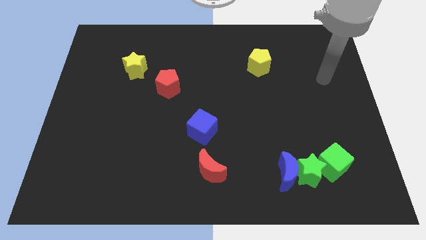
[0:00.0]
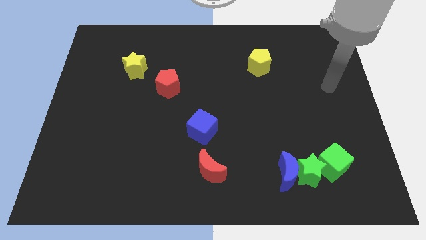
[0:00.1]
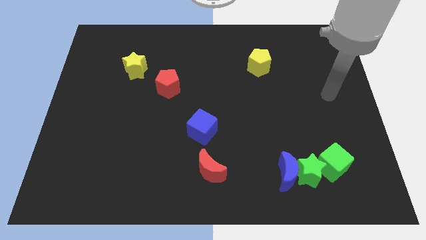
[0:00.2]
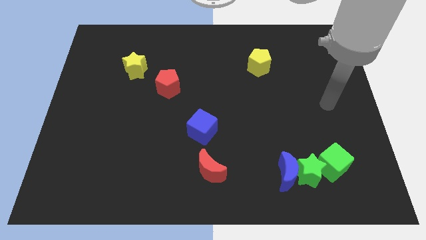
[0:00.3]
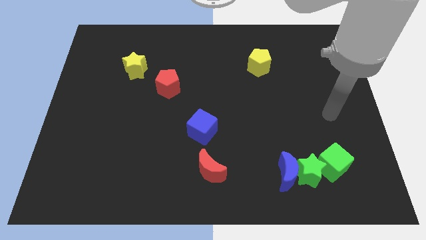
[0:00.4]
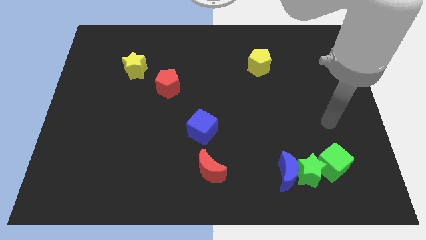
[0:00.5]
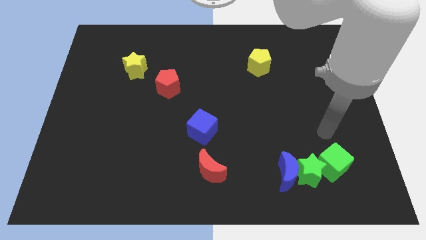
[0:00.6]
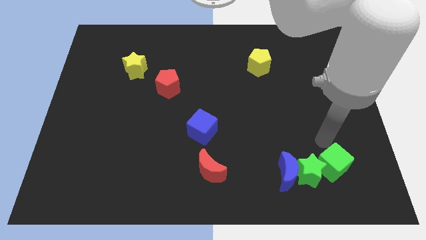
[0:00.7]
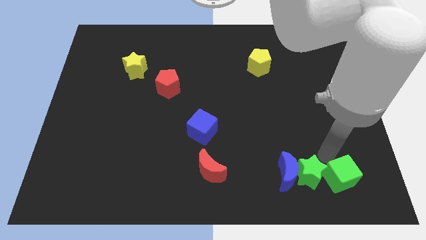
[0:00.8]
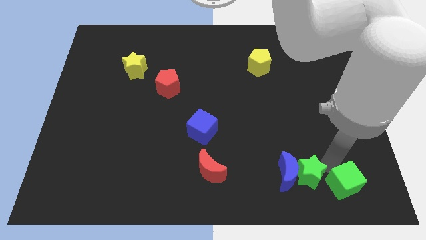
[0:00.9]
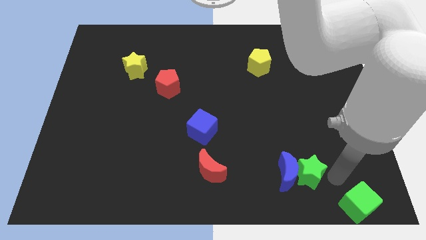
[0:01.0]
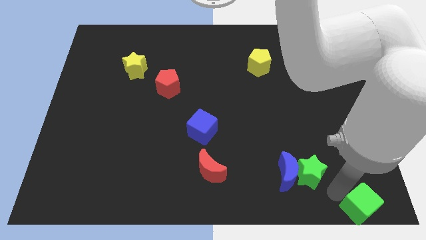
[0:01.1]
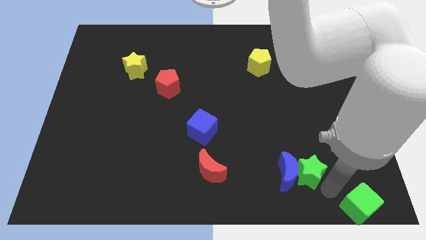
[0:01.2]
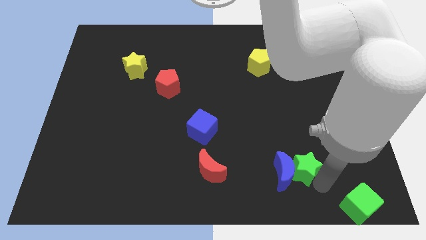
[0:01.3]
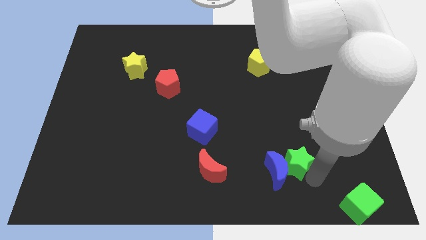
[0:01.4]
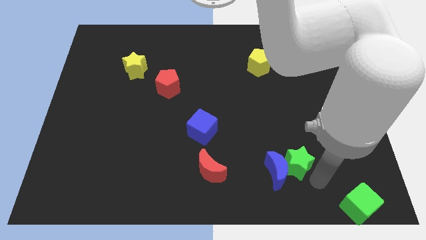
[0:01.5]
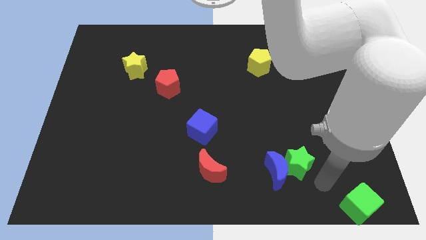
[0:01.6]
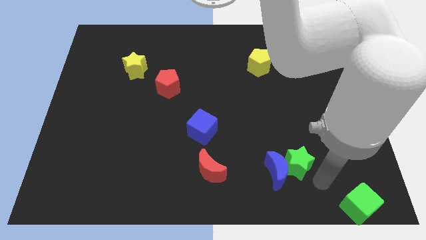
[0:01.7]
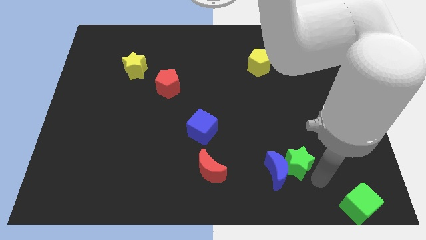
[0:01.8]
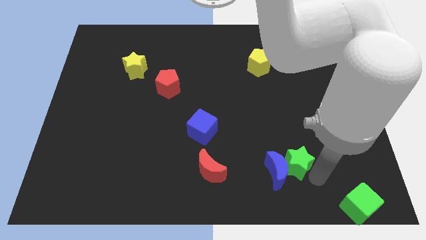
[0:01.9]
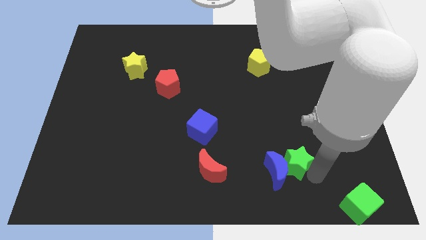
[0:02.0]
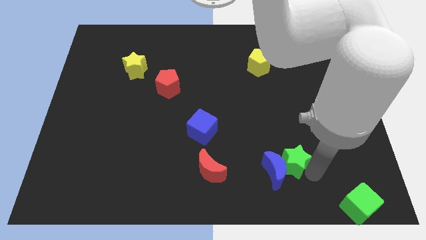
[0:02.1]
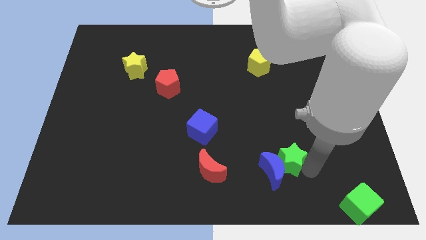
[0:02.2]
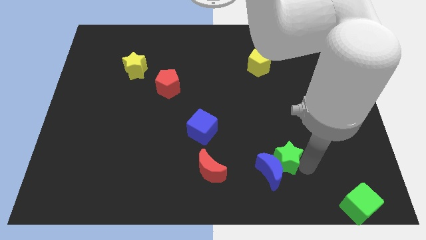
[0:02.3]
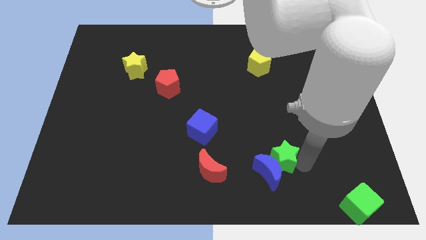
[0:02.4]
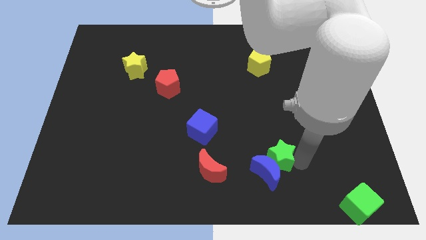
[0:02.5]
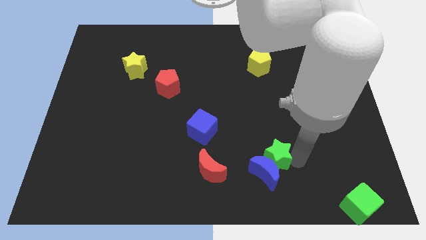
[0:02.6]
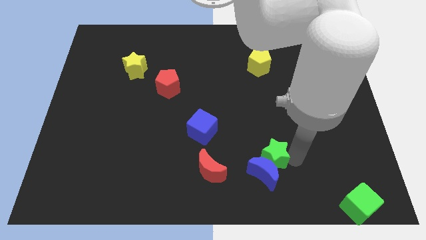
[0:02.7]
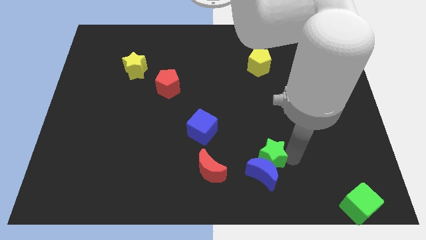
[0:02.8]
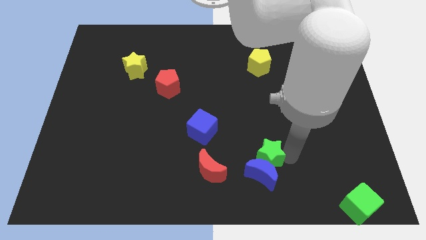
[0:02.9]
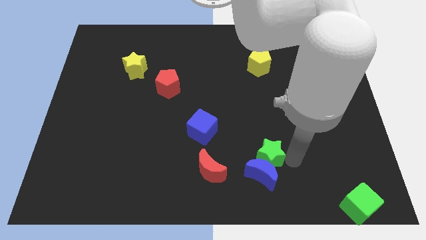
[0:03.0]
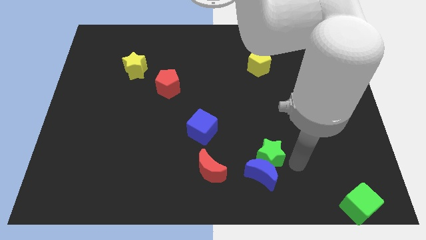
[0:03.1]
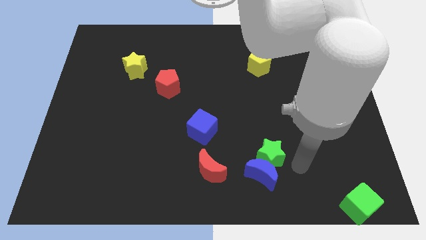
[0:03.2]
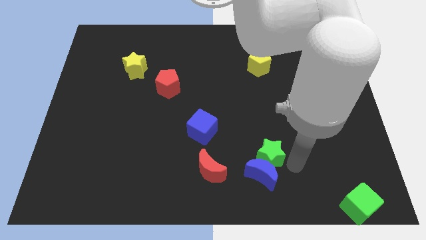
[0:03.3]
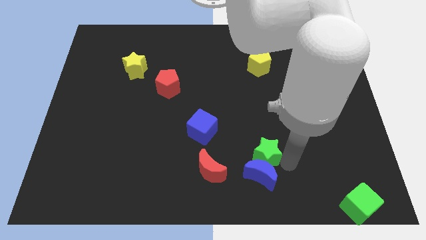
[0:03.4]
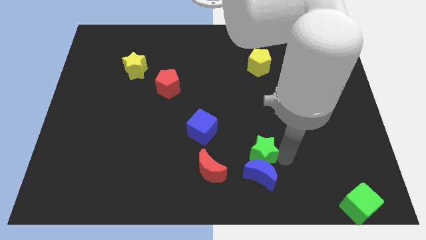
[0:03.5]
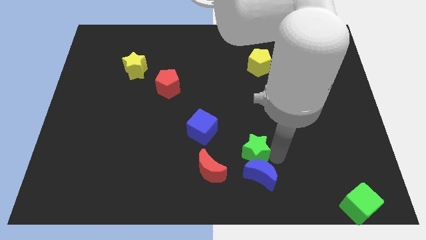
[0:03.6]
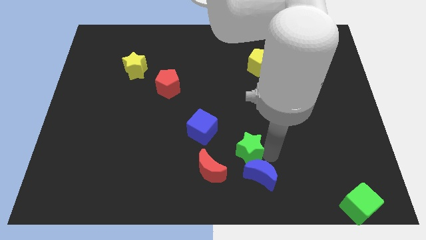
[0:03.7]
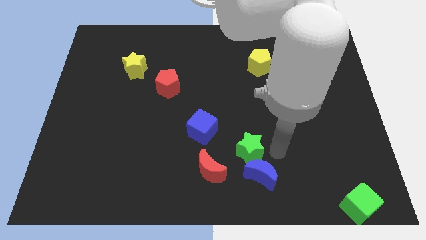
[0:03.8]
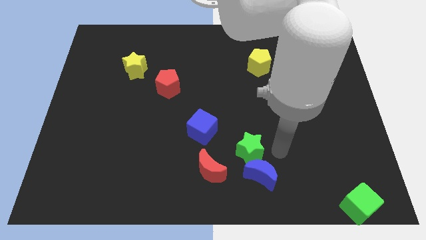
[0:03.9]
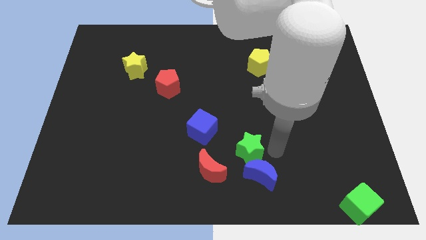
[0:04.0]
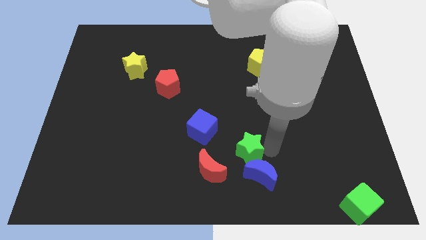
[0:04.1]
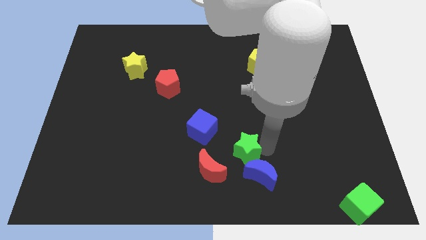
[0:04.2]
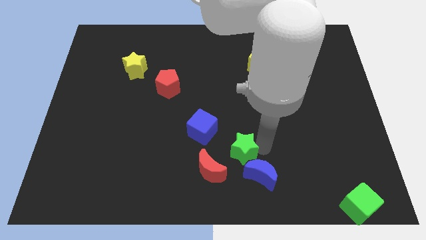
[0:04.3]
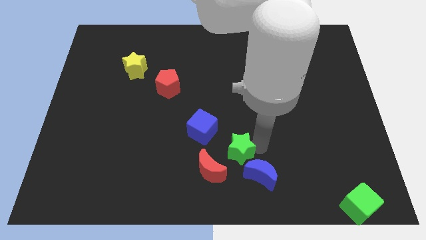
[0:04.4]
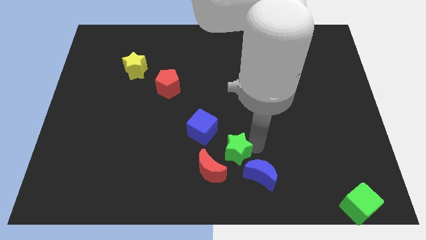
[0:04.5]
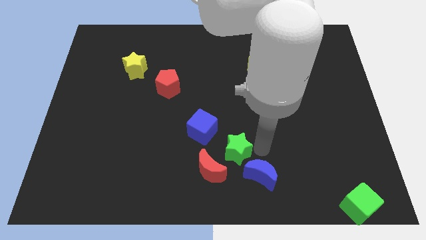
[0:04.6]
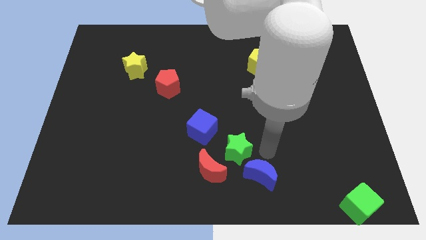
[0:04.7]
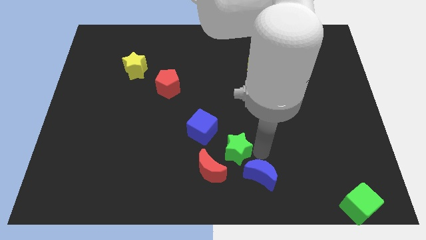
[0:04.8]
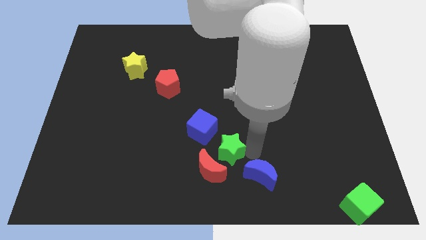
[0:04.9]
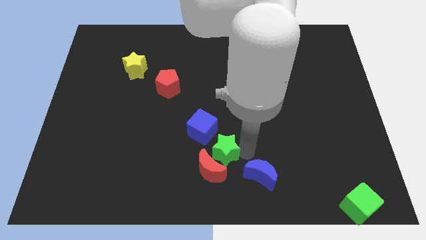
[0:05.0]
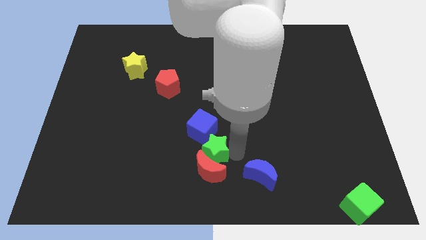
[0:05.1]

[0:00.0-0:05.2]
slide the green star to the top left side of the red moon

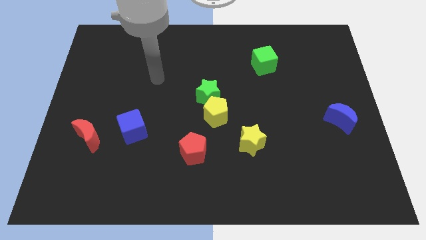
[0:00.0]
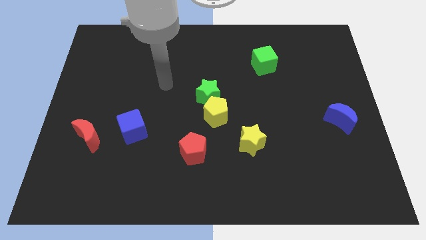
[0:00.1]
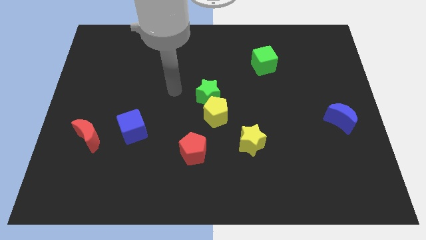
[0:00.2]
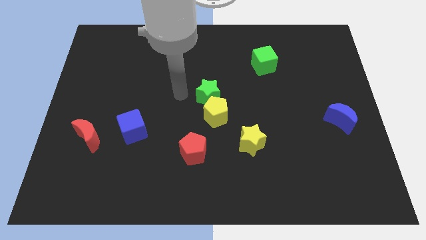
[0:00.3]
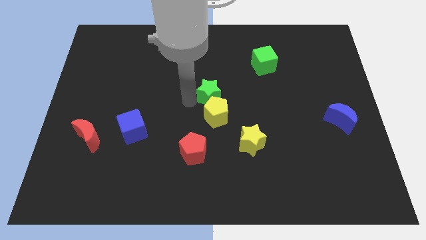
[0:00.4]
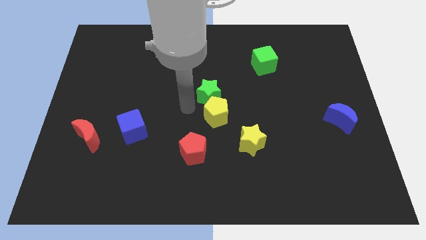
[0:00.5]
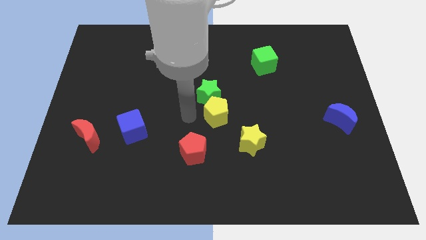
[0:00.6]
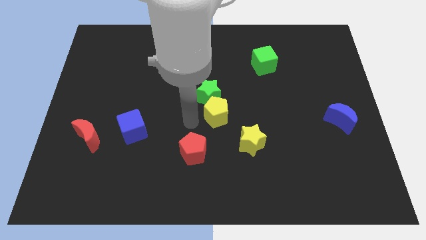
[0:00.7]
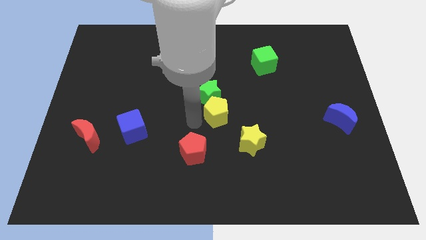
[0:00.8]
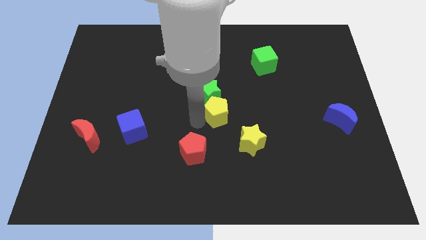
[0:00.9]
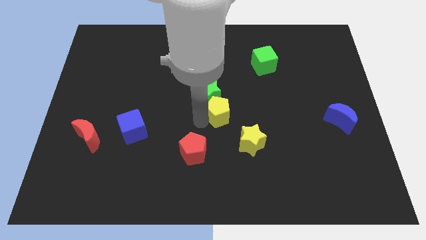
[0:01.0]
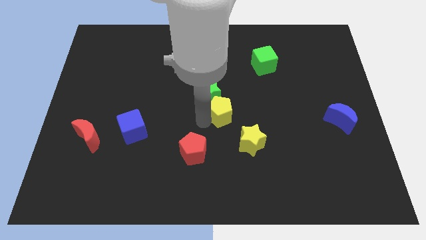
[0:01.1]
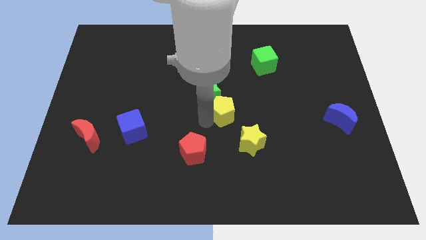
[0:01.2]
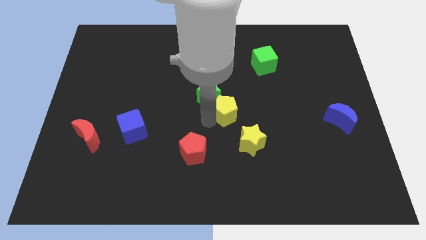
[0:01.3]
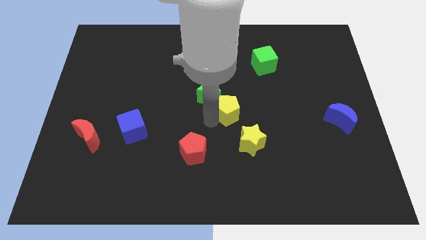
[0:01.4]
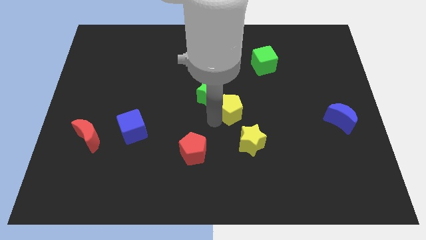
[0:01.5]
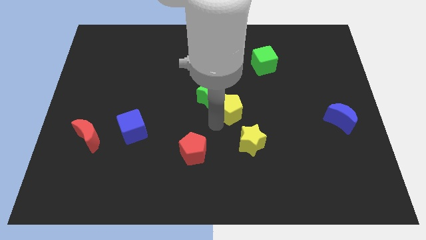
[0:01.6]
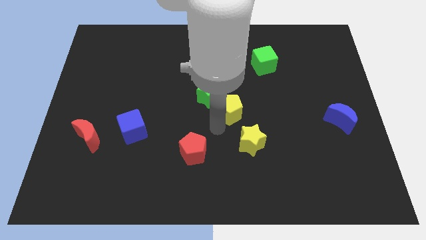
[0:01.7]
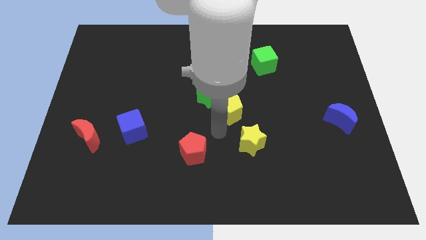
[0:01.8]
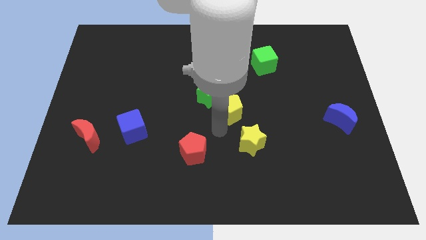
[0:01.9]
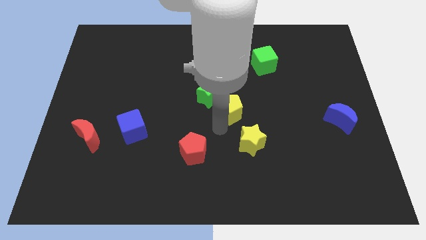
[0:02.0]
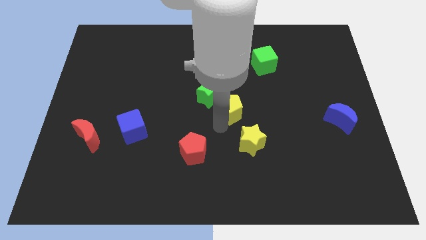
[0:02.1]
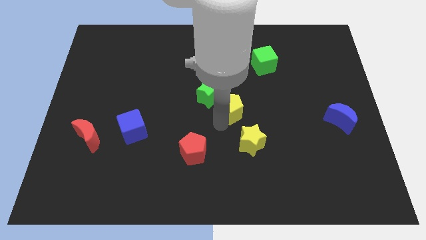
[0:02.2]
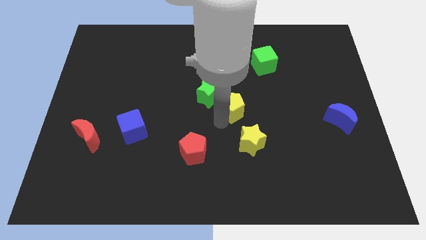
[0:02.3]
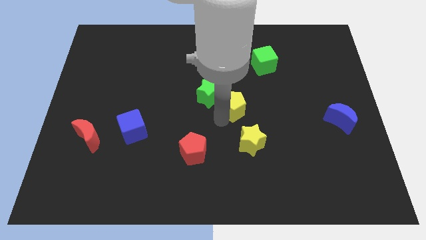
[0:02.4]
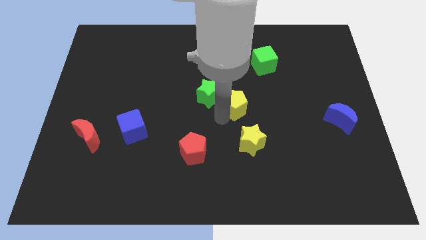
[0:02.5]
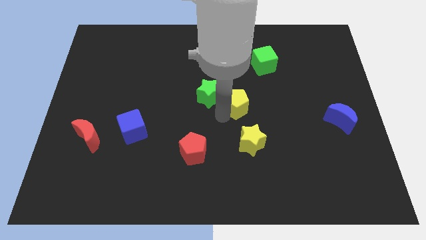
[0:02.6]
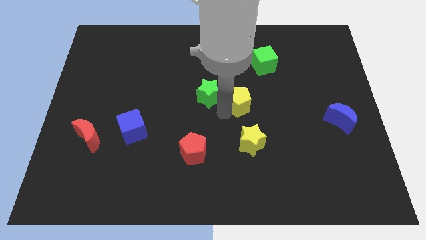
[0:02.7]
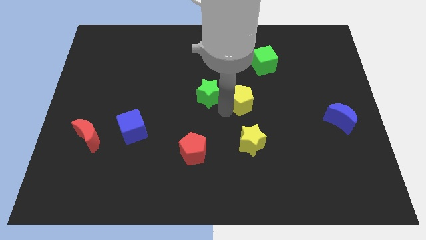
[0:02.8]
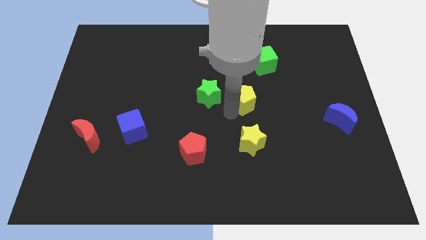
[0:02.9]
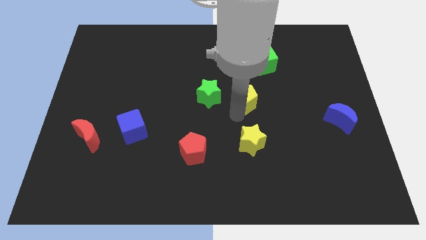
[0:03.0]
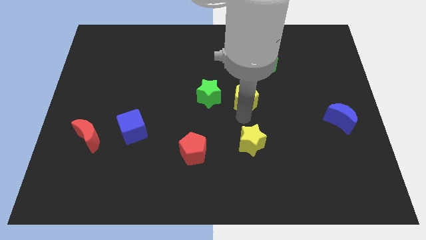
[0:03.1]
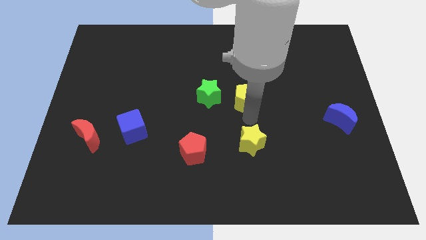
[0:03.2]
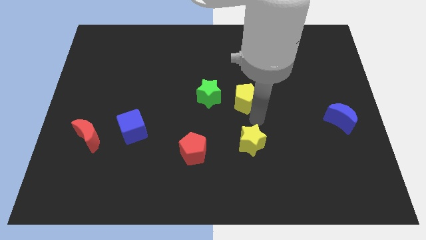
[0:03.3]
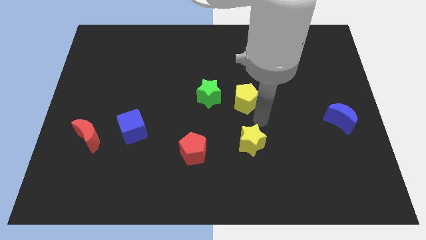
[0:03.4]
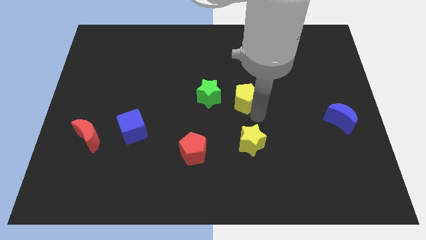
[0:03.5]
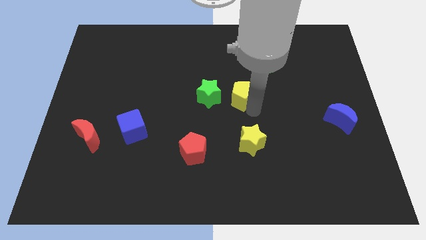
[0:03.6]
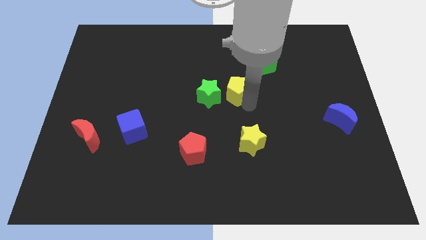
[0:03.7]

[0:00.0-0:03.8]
slide the yellow pentagon to the top right of the green star
